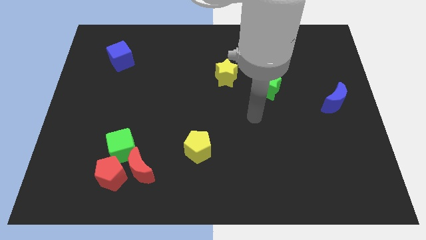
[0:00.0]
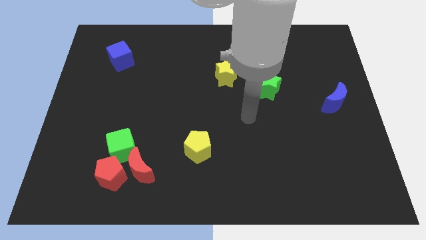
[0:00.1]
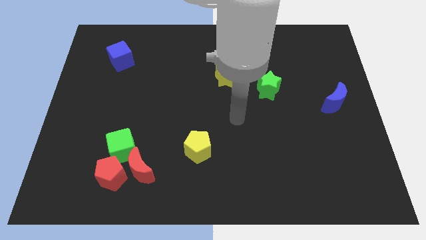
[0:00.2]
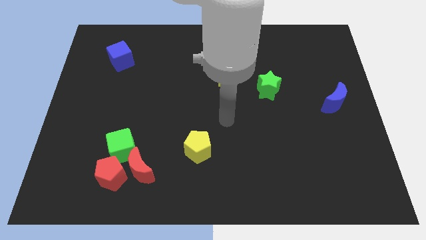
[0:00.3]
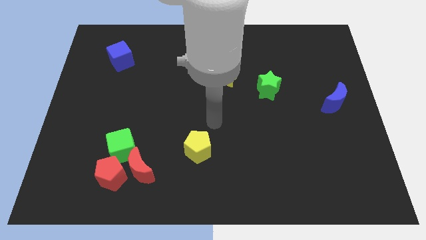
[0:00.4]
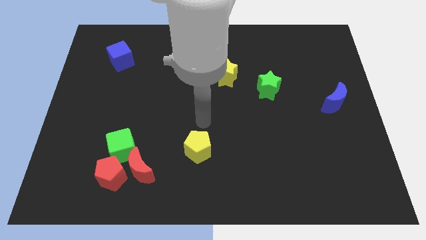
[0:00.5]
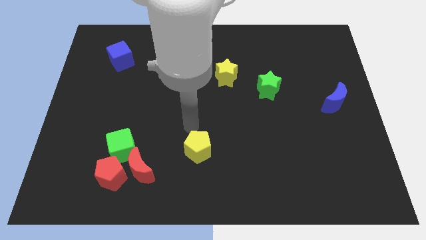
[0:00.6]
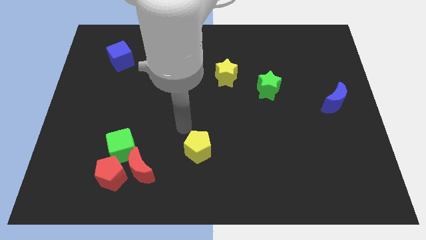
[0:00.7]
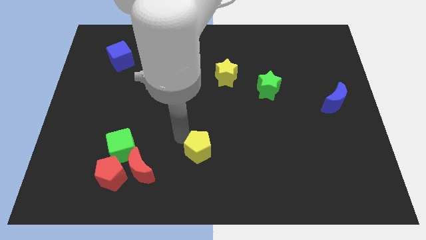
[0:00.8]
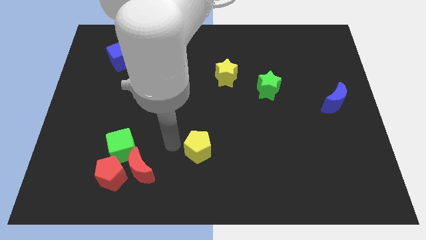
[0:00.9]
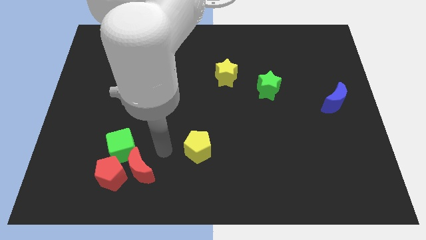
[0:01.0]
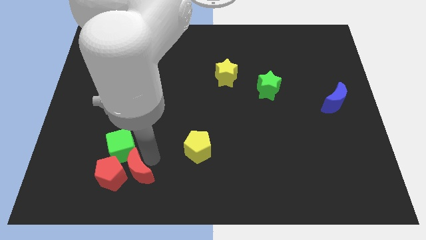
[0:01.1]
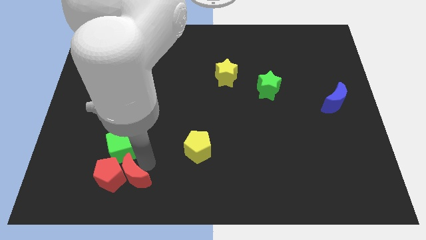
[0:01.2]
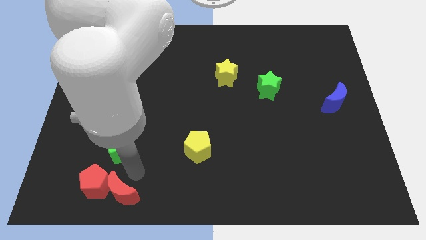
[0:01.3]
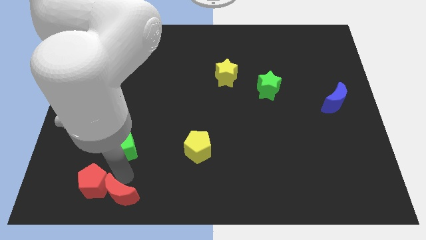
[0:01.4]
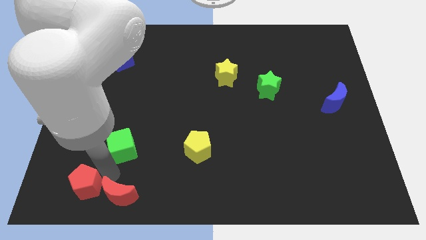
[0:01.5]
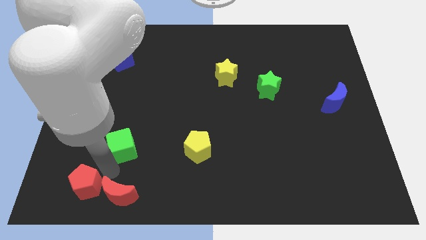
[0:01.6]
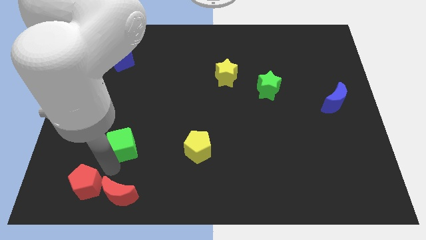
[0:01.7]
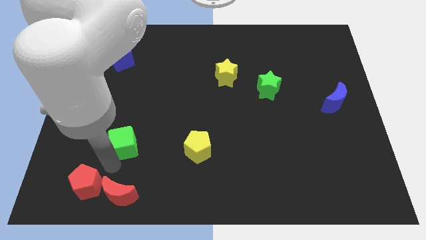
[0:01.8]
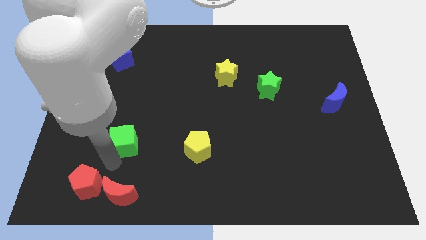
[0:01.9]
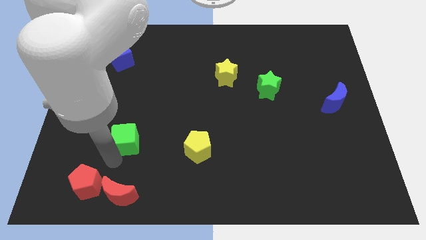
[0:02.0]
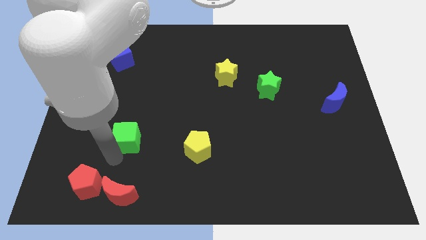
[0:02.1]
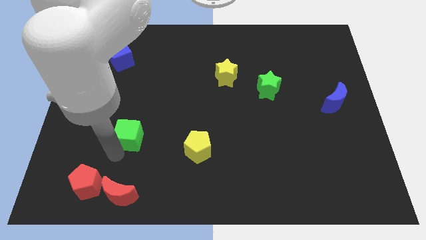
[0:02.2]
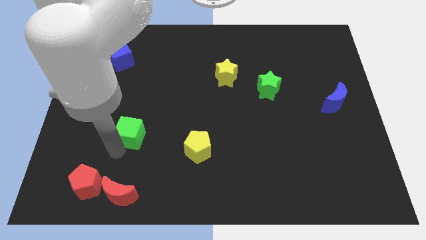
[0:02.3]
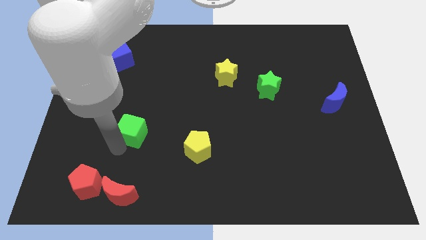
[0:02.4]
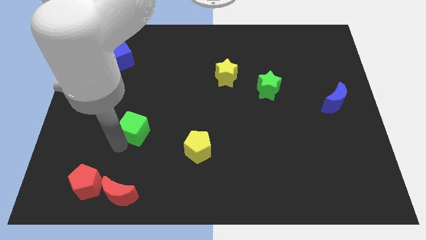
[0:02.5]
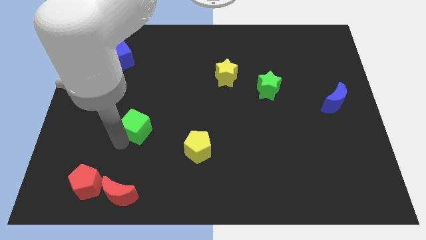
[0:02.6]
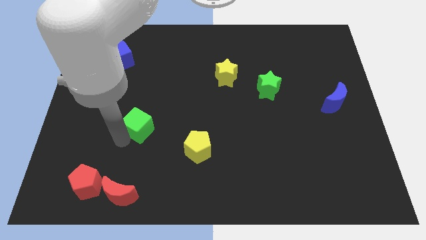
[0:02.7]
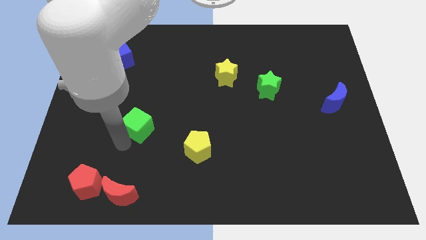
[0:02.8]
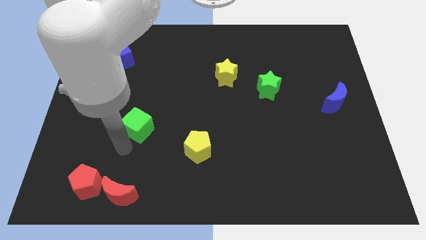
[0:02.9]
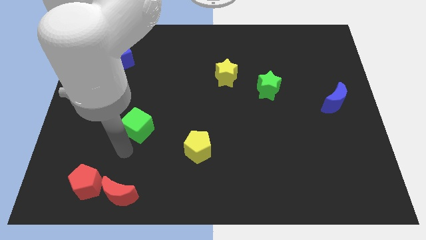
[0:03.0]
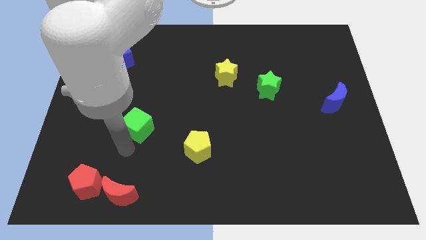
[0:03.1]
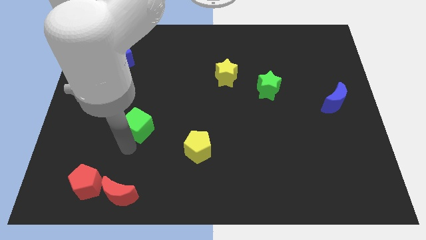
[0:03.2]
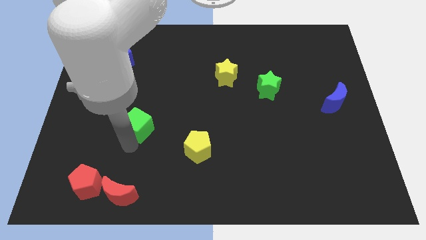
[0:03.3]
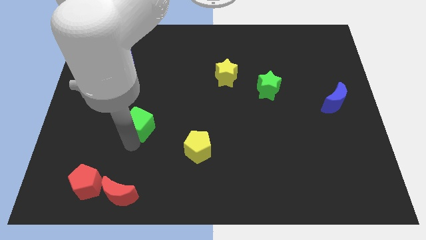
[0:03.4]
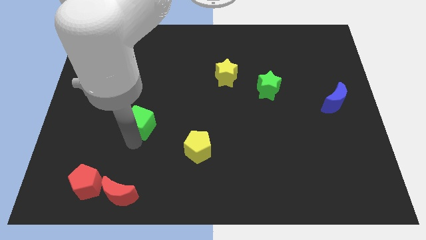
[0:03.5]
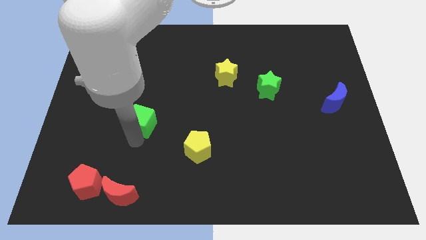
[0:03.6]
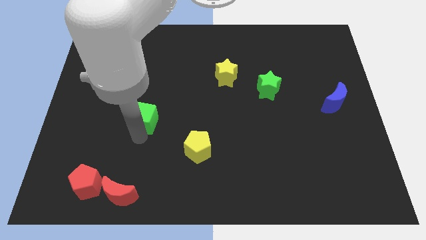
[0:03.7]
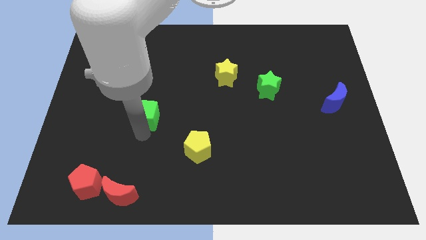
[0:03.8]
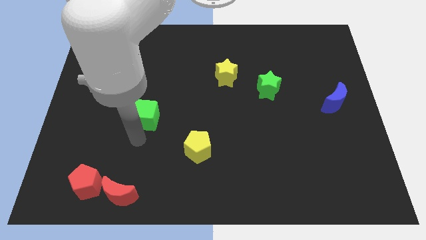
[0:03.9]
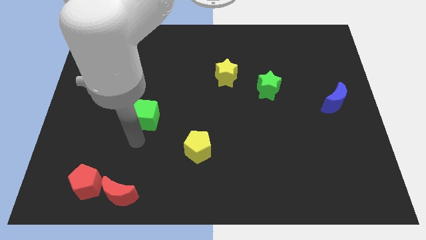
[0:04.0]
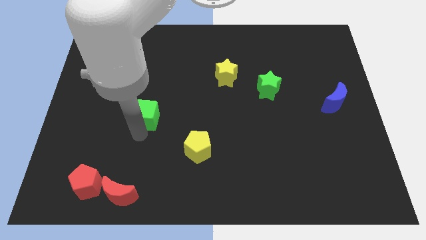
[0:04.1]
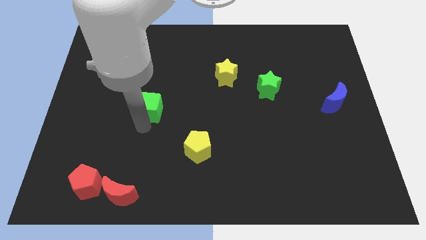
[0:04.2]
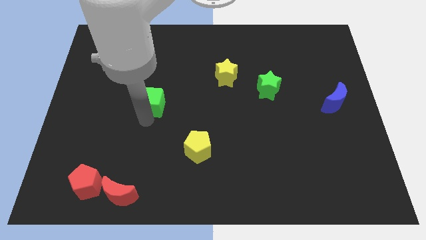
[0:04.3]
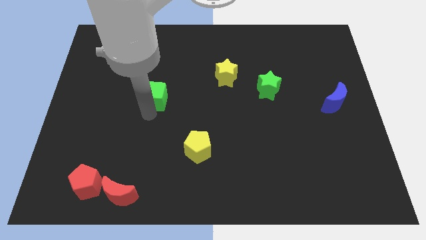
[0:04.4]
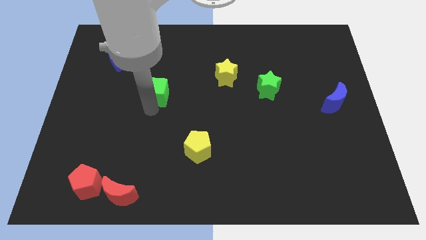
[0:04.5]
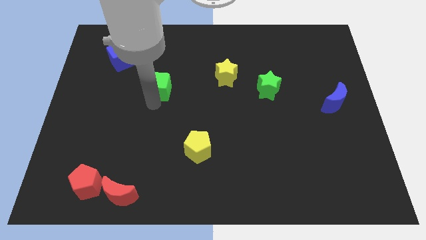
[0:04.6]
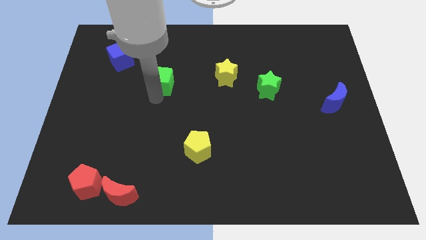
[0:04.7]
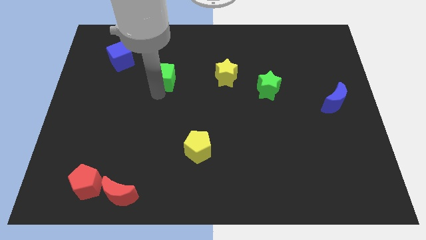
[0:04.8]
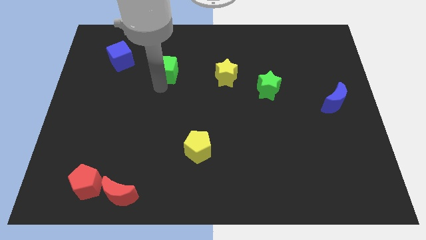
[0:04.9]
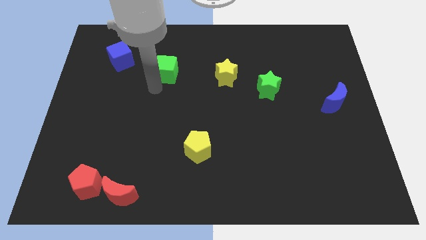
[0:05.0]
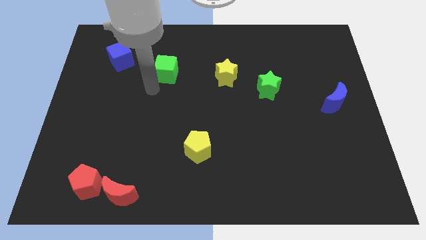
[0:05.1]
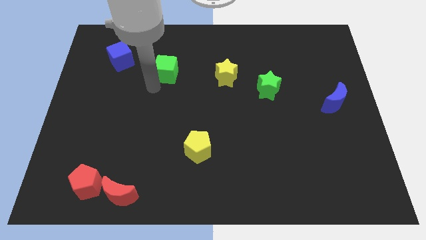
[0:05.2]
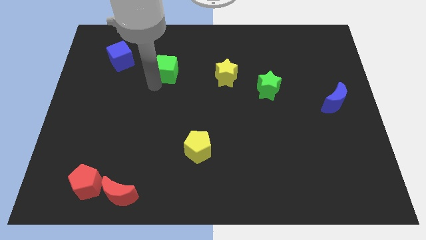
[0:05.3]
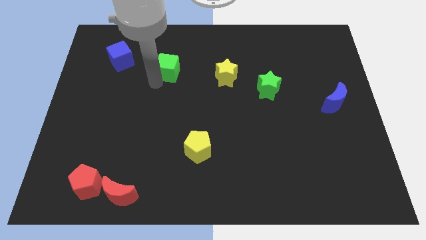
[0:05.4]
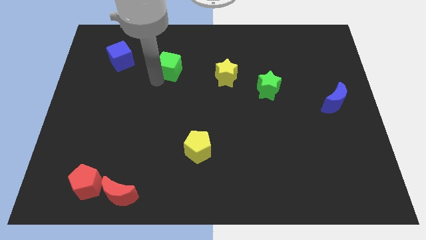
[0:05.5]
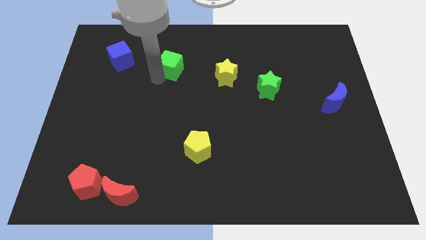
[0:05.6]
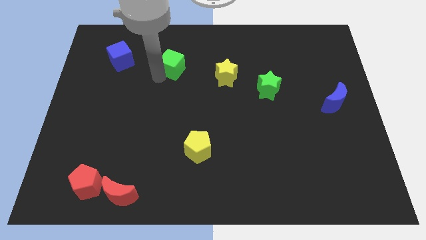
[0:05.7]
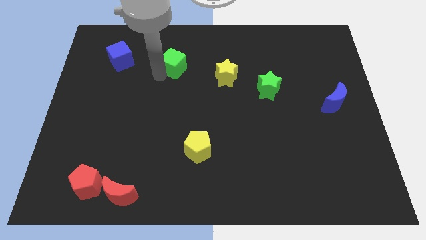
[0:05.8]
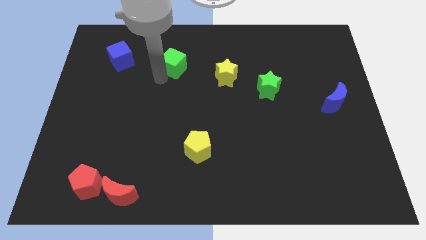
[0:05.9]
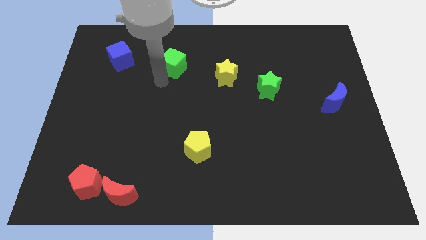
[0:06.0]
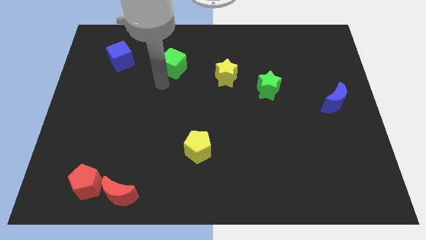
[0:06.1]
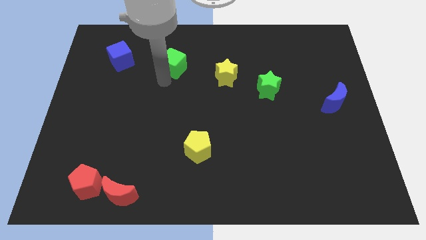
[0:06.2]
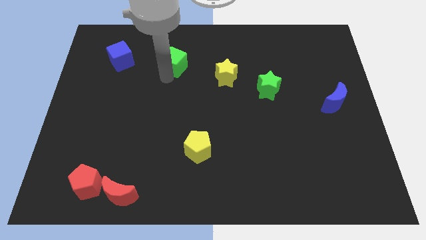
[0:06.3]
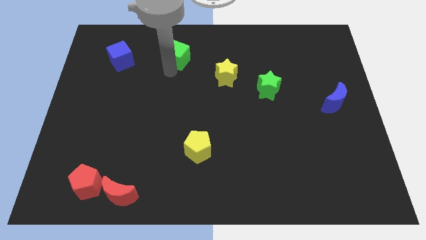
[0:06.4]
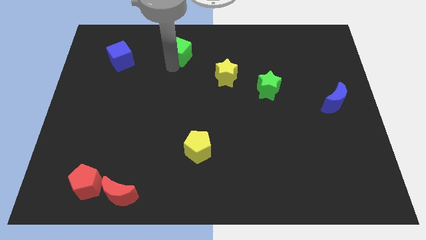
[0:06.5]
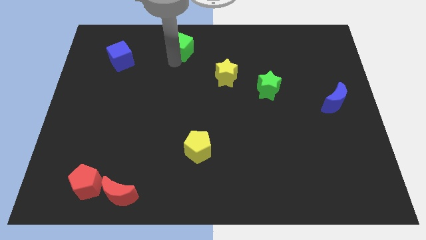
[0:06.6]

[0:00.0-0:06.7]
push the green cube to the top

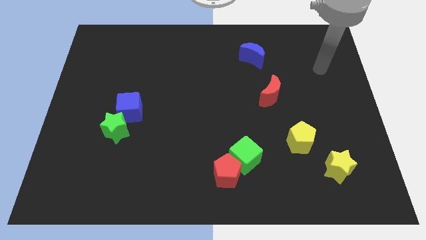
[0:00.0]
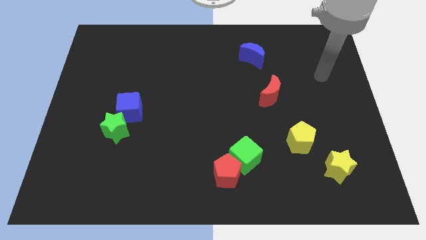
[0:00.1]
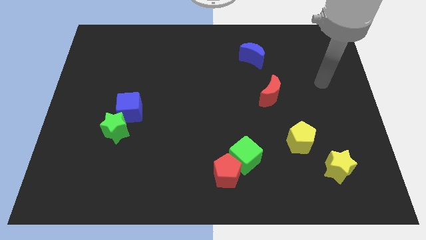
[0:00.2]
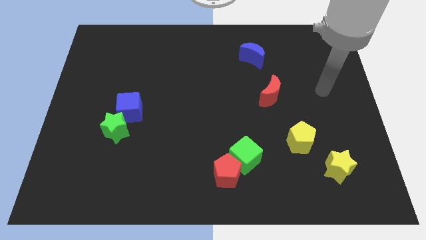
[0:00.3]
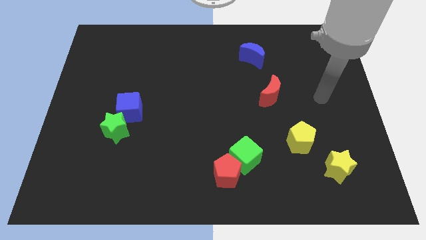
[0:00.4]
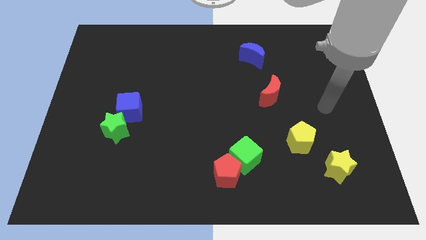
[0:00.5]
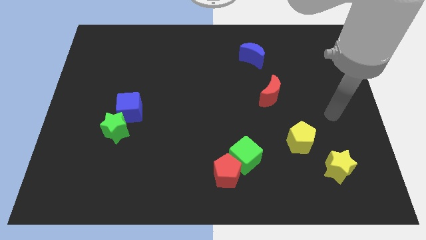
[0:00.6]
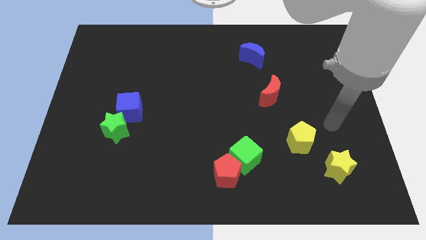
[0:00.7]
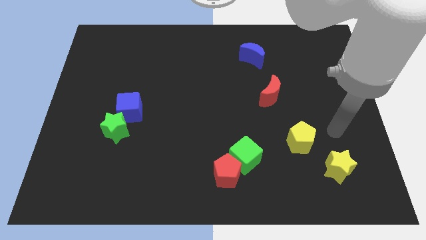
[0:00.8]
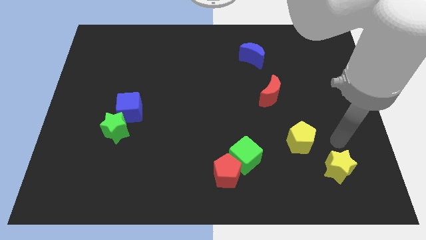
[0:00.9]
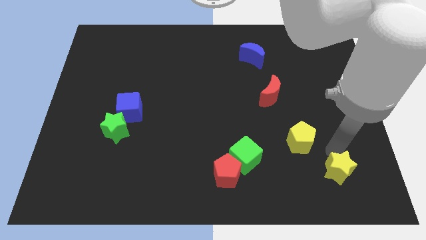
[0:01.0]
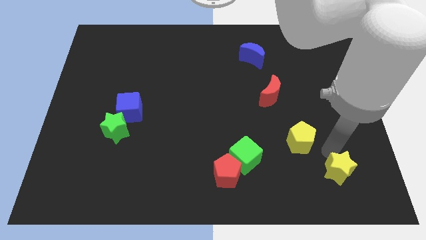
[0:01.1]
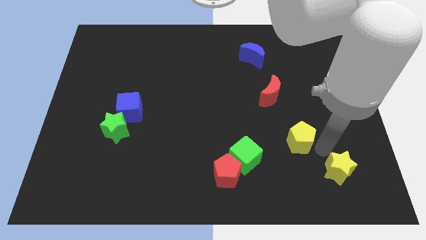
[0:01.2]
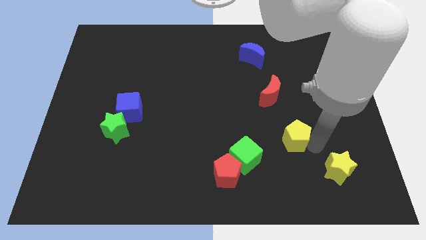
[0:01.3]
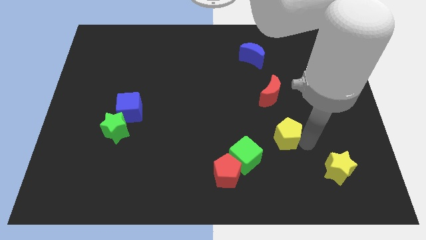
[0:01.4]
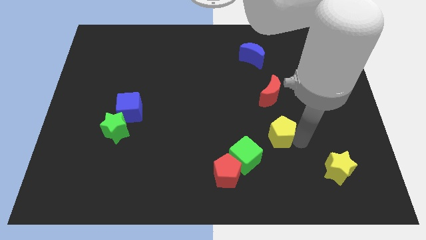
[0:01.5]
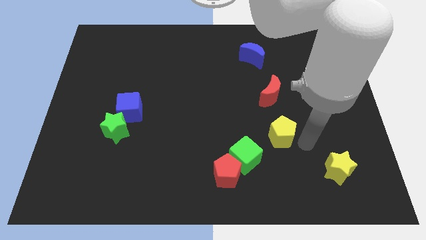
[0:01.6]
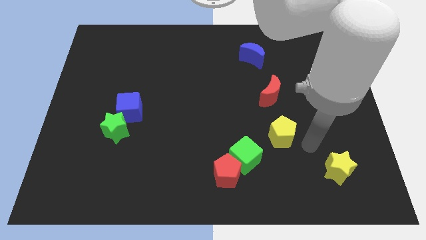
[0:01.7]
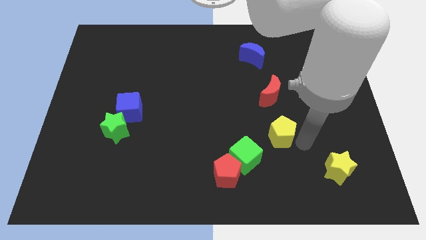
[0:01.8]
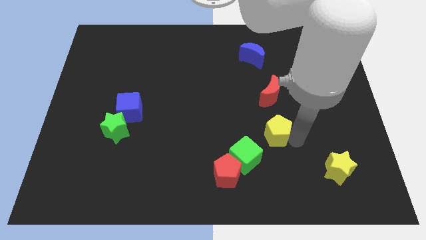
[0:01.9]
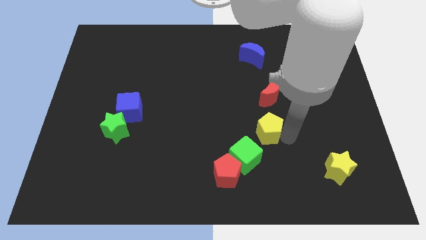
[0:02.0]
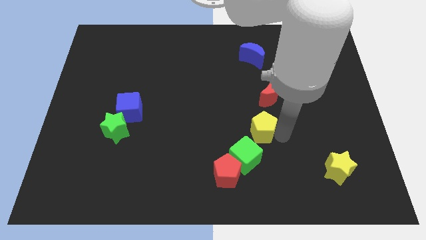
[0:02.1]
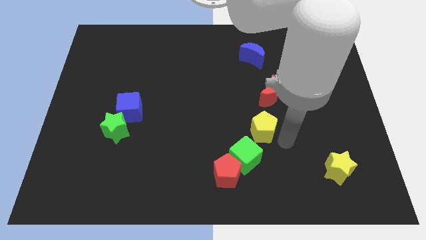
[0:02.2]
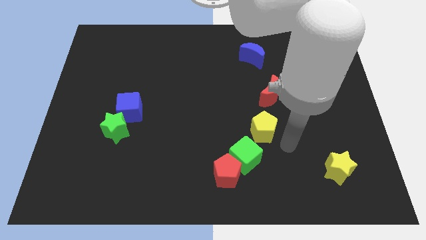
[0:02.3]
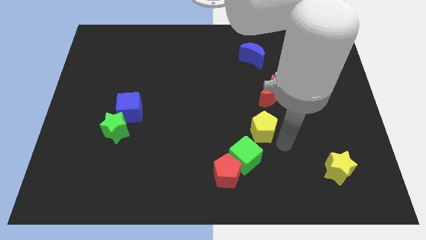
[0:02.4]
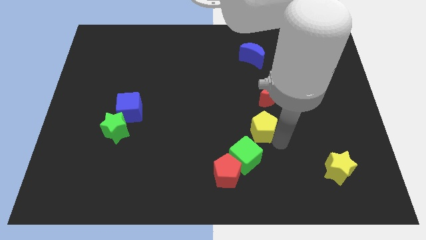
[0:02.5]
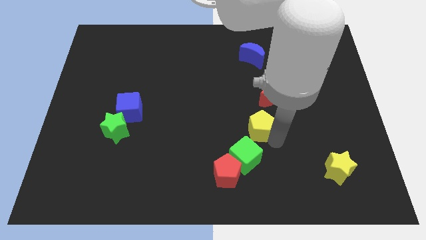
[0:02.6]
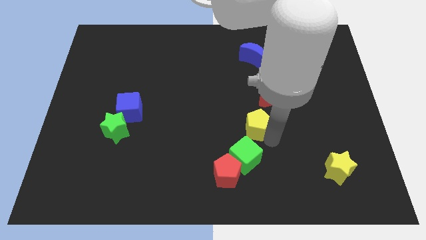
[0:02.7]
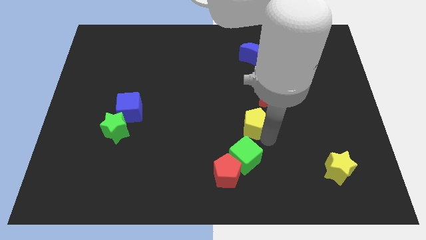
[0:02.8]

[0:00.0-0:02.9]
slide the yellow pentagon to the middle of the board
